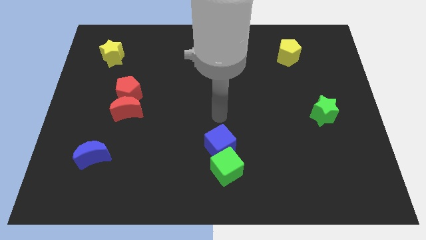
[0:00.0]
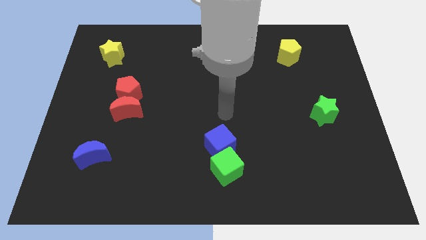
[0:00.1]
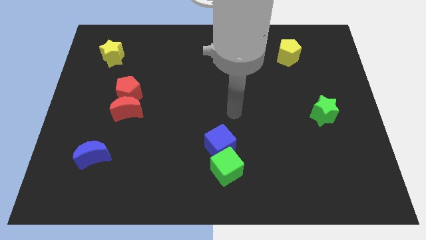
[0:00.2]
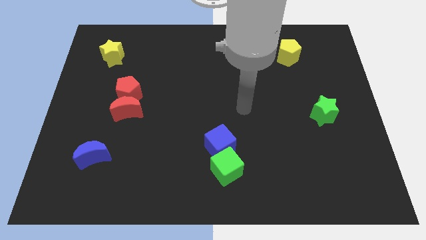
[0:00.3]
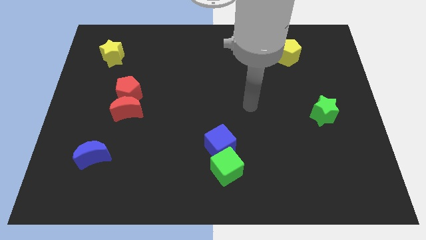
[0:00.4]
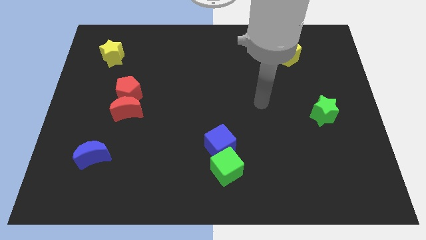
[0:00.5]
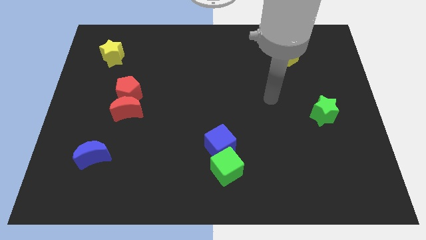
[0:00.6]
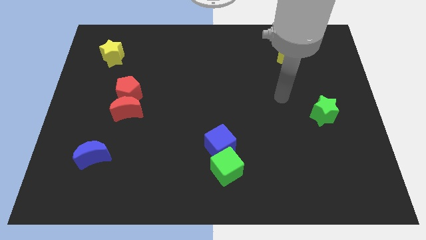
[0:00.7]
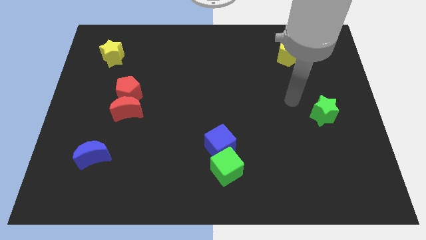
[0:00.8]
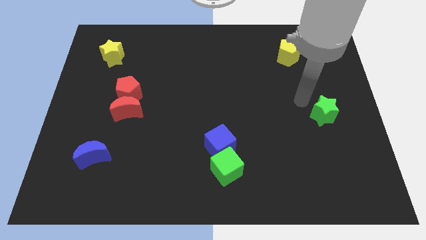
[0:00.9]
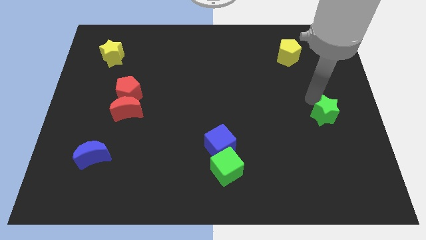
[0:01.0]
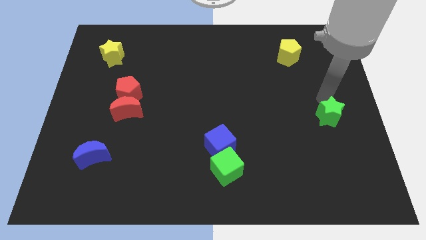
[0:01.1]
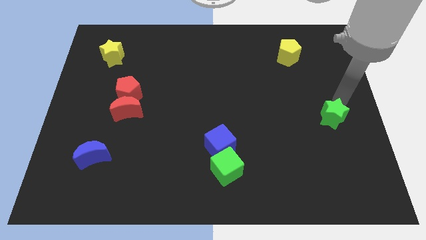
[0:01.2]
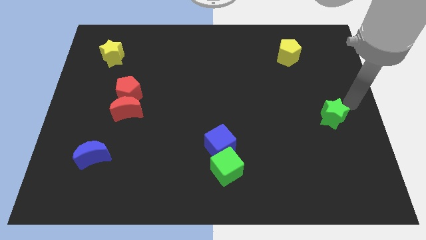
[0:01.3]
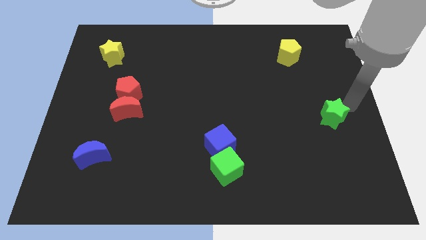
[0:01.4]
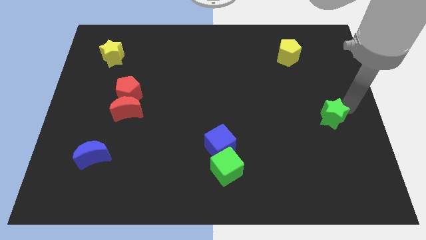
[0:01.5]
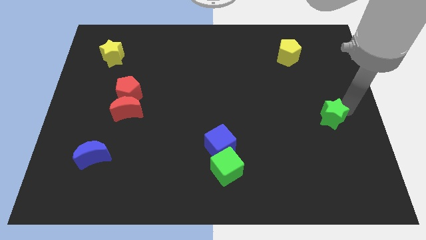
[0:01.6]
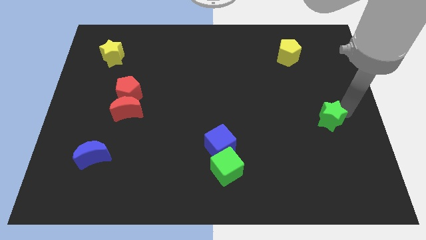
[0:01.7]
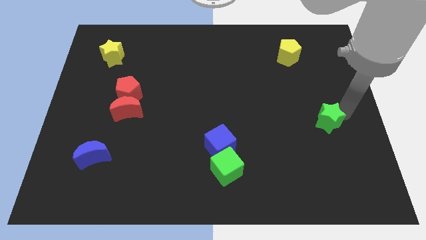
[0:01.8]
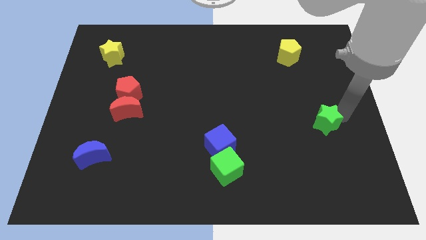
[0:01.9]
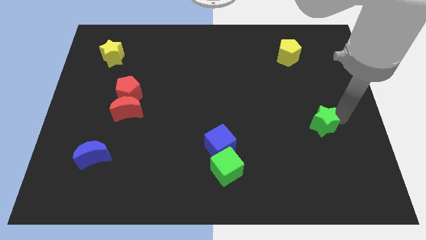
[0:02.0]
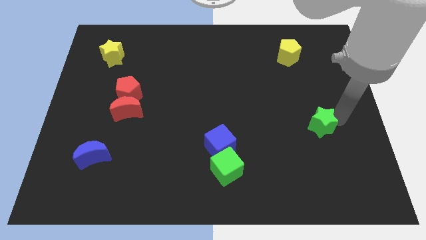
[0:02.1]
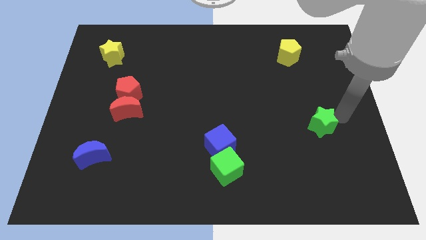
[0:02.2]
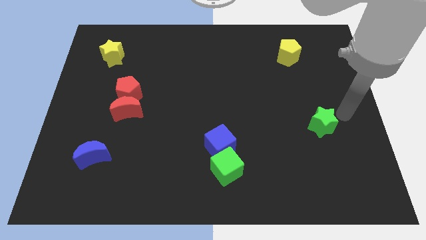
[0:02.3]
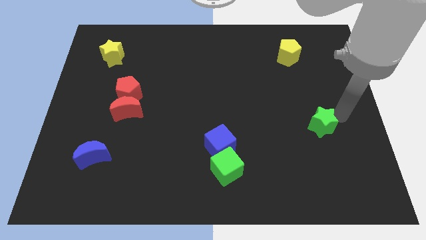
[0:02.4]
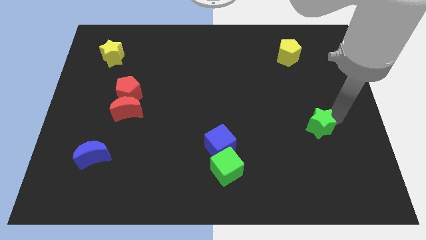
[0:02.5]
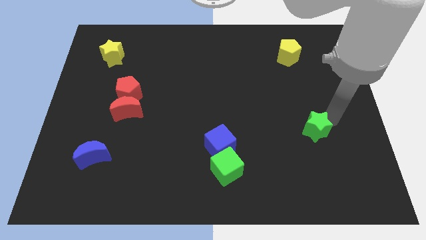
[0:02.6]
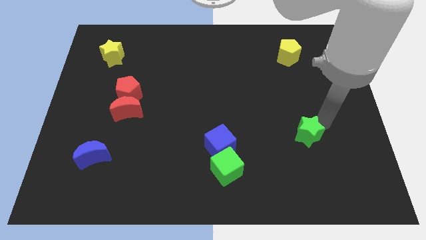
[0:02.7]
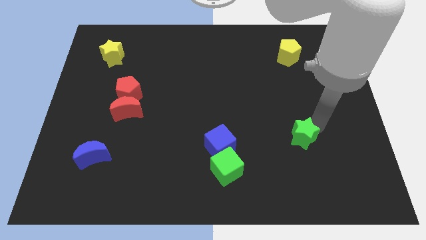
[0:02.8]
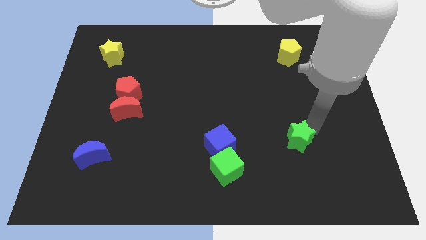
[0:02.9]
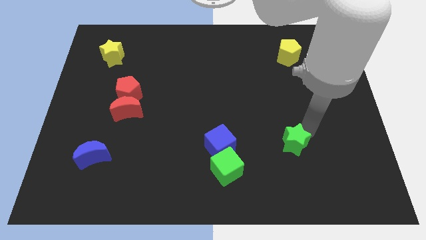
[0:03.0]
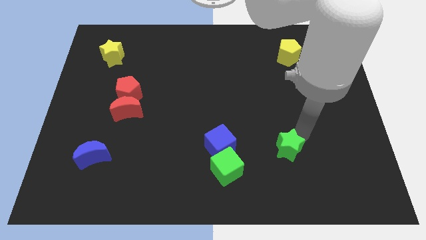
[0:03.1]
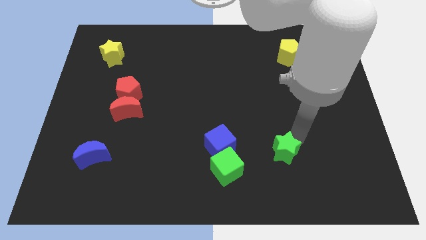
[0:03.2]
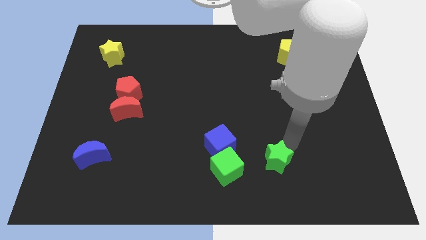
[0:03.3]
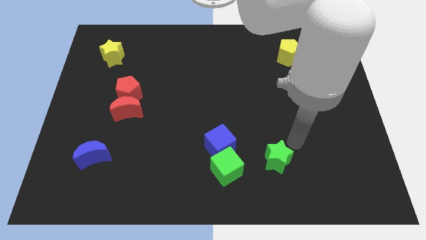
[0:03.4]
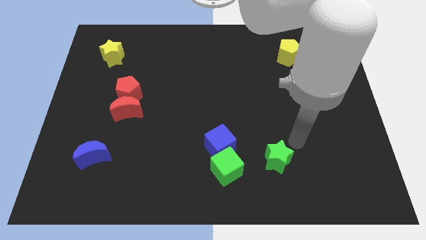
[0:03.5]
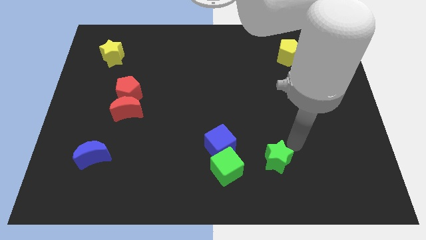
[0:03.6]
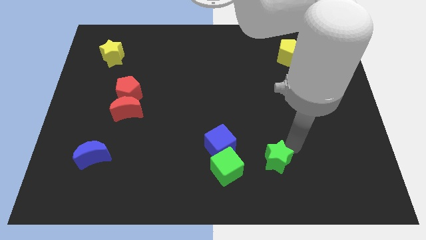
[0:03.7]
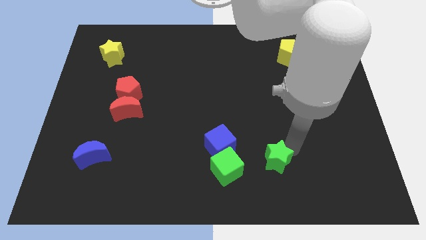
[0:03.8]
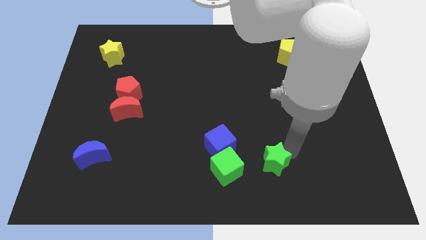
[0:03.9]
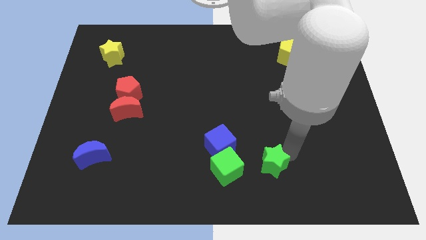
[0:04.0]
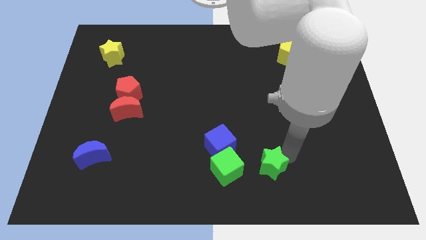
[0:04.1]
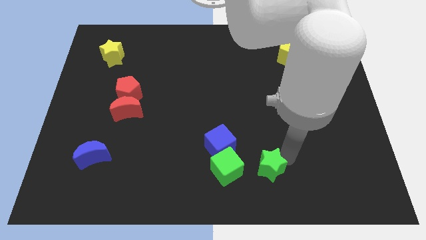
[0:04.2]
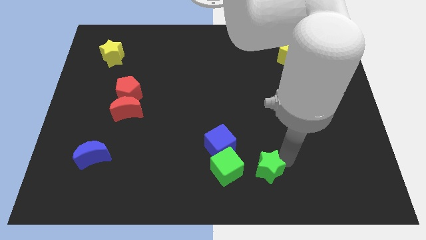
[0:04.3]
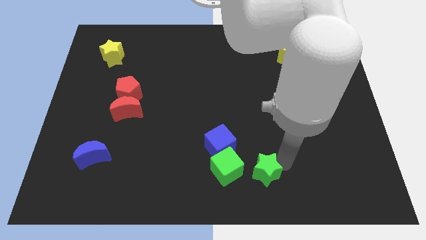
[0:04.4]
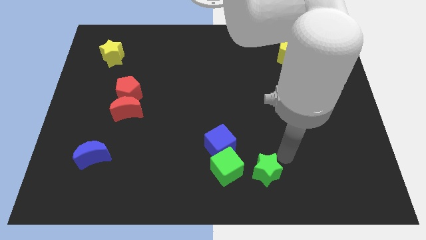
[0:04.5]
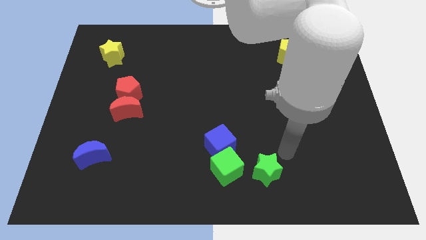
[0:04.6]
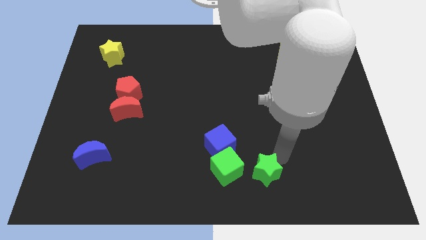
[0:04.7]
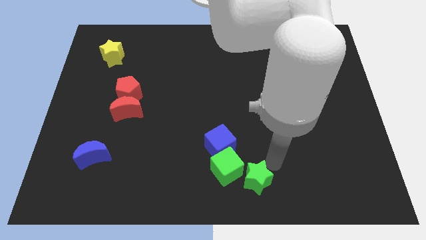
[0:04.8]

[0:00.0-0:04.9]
put the green star to the bottom side

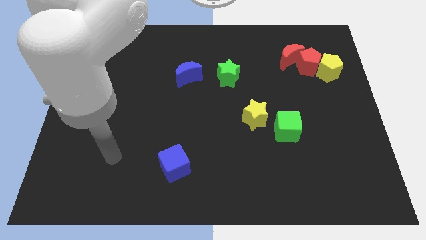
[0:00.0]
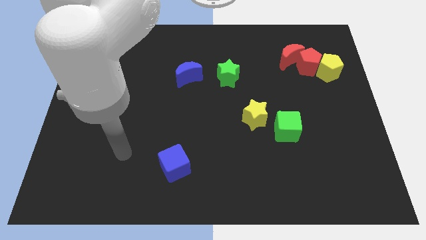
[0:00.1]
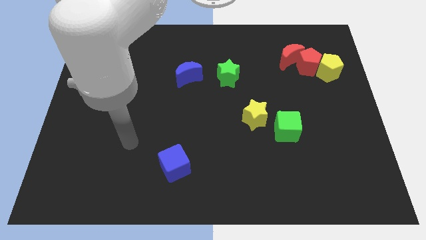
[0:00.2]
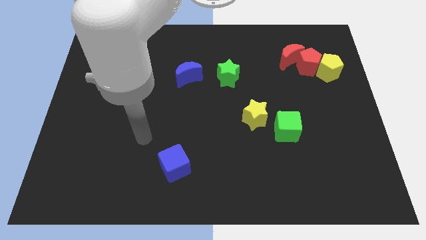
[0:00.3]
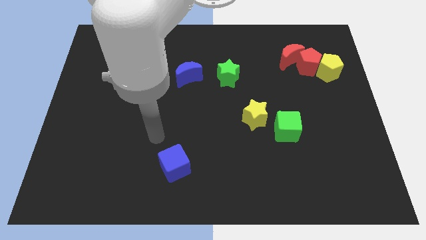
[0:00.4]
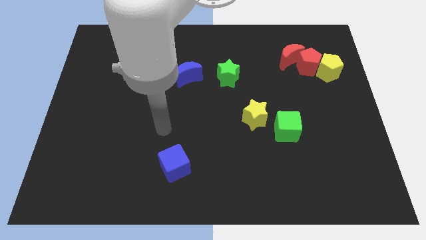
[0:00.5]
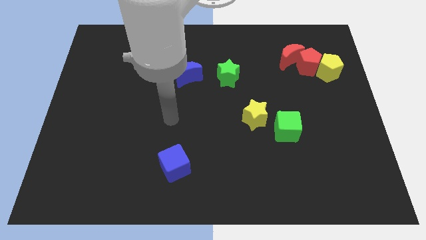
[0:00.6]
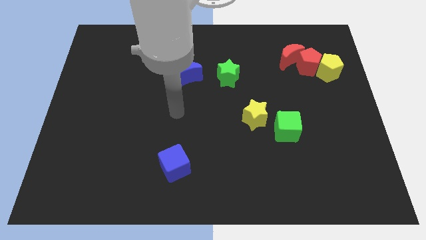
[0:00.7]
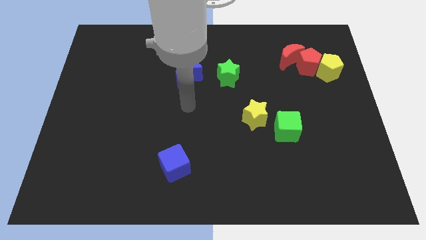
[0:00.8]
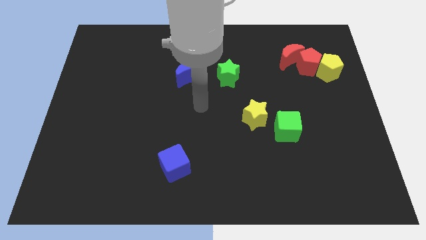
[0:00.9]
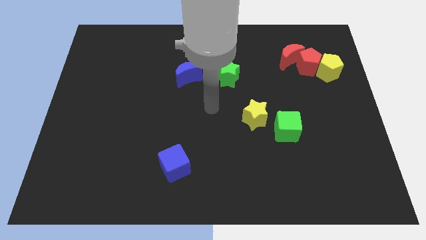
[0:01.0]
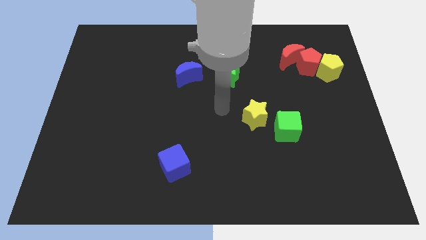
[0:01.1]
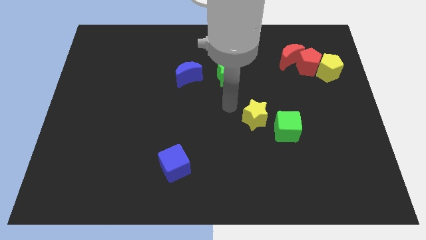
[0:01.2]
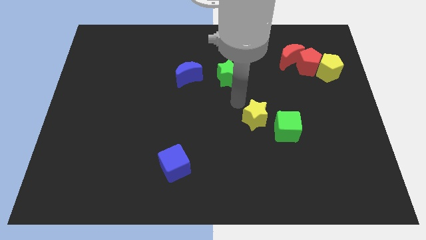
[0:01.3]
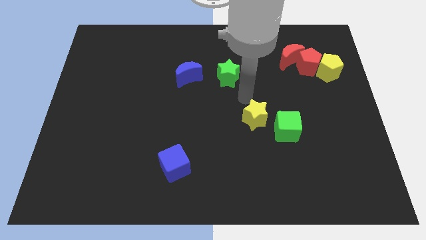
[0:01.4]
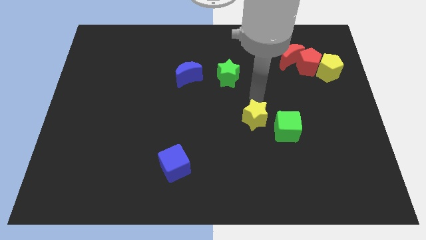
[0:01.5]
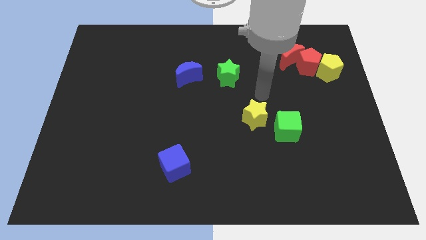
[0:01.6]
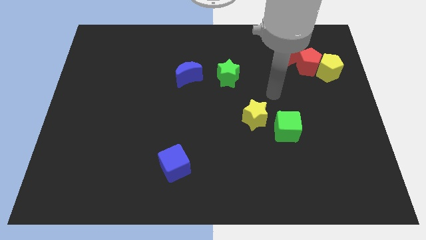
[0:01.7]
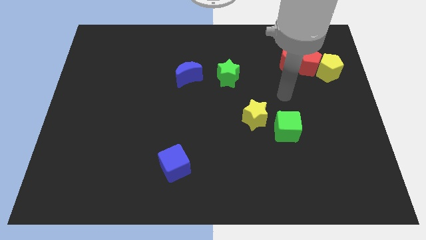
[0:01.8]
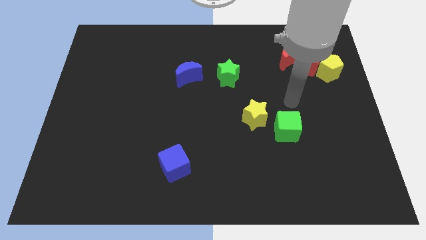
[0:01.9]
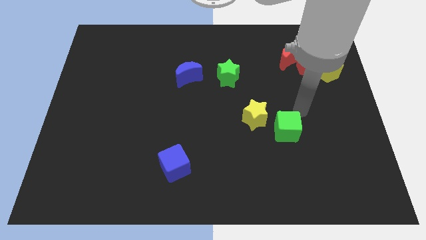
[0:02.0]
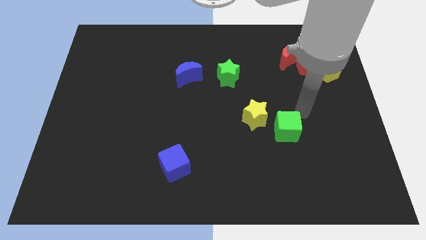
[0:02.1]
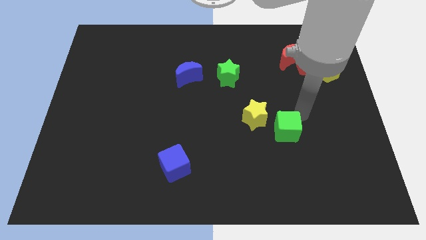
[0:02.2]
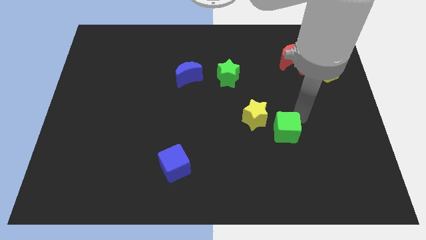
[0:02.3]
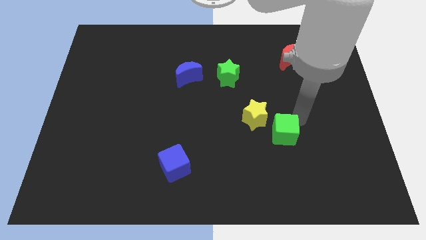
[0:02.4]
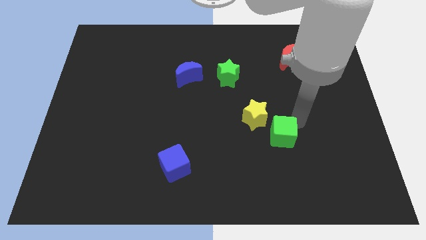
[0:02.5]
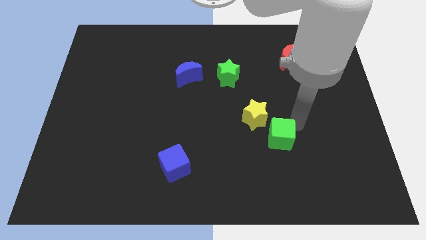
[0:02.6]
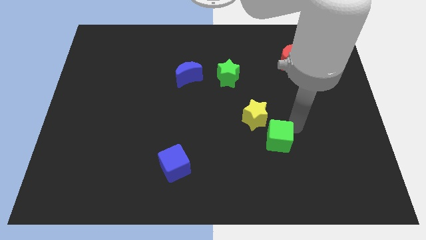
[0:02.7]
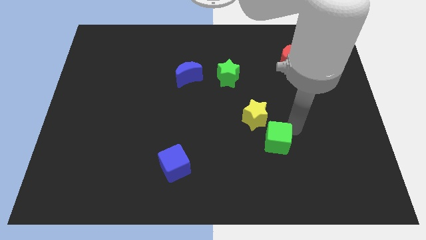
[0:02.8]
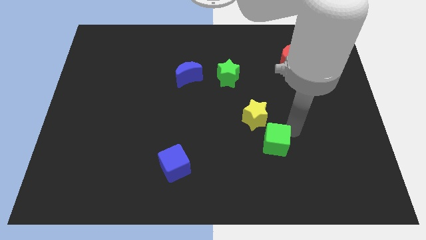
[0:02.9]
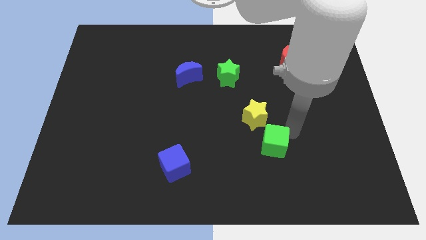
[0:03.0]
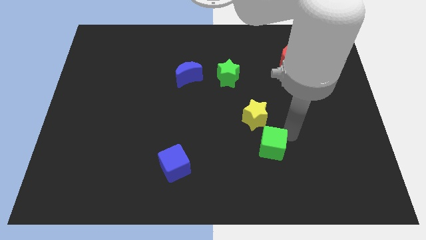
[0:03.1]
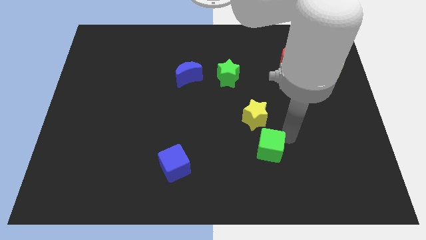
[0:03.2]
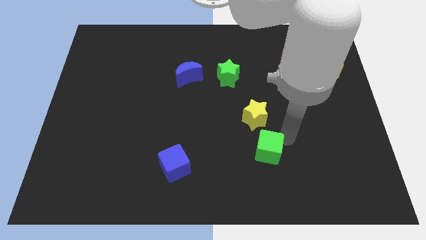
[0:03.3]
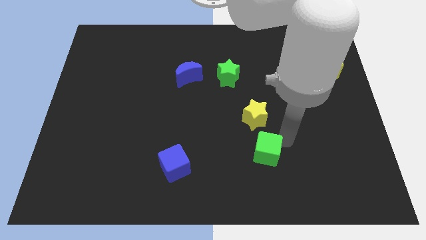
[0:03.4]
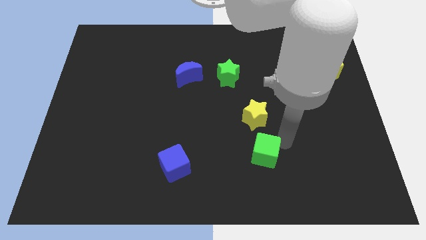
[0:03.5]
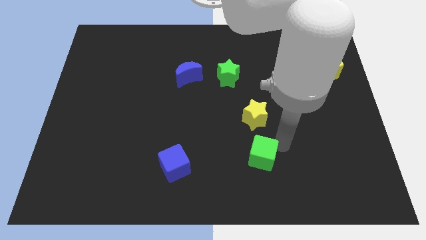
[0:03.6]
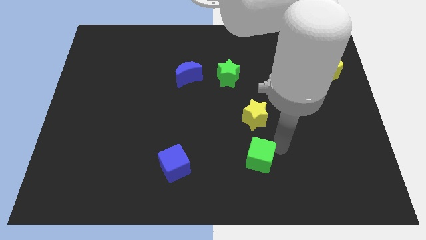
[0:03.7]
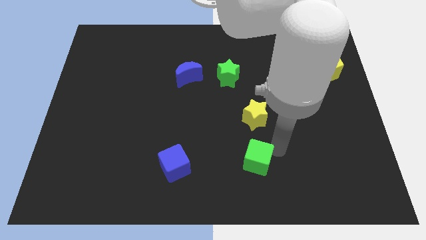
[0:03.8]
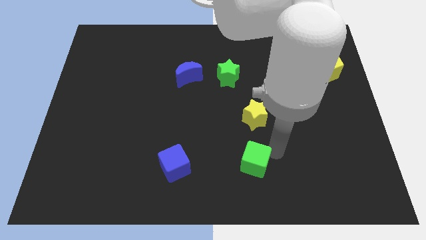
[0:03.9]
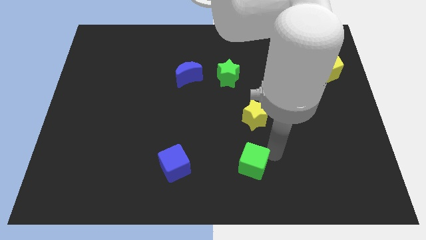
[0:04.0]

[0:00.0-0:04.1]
put the green cube to the bottom side
